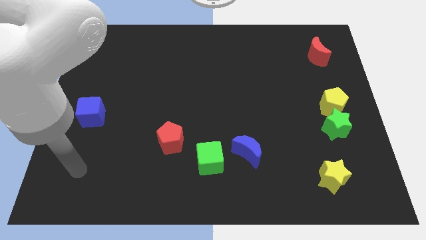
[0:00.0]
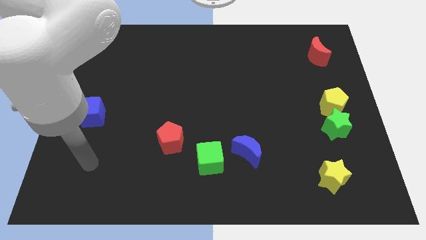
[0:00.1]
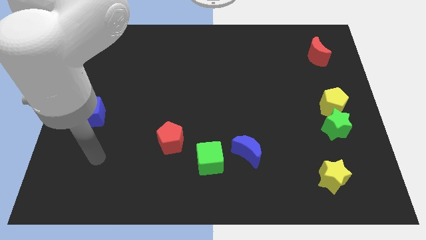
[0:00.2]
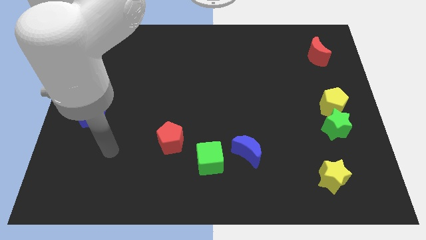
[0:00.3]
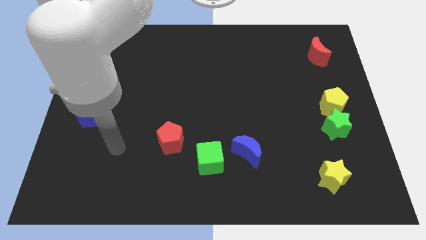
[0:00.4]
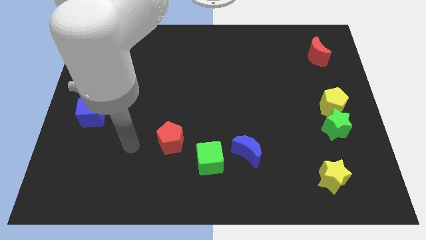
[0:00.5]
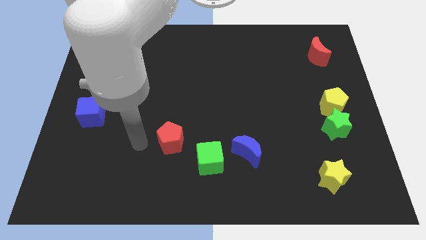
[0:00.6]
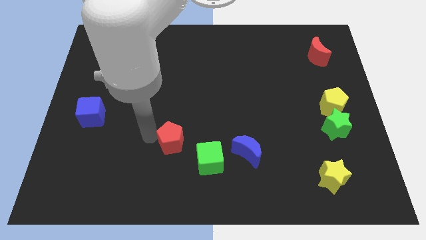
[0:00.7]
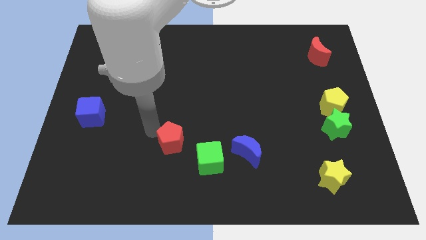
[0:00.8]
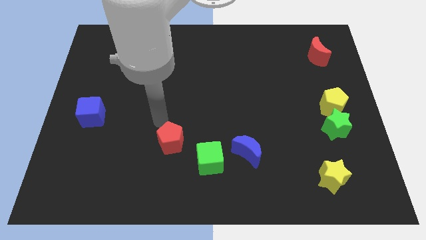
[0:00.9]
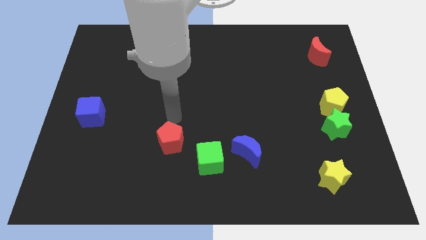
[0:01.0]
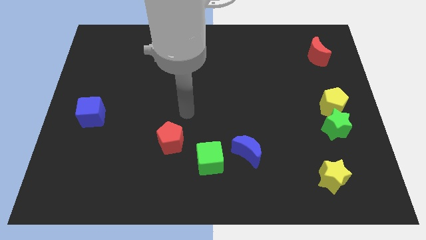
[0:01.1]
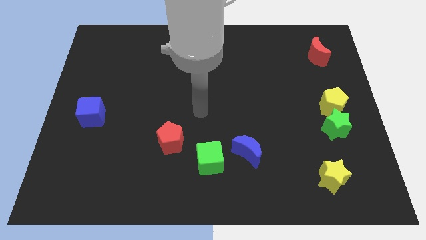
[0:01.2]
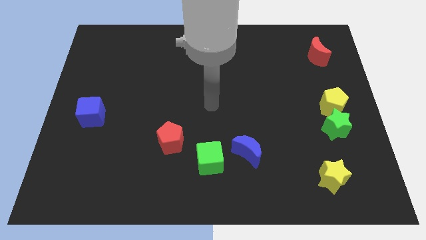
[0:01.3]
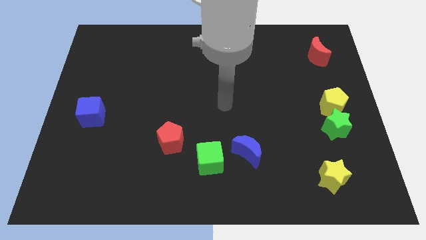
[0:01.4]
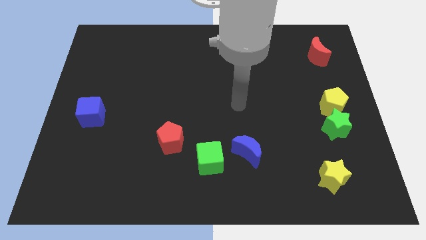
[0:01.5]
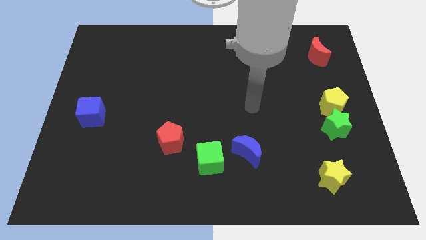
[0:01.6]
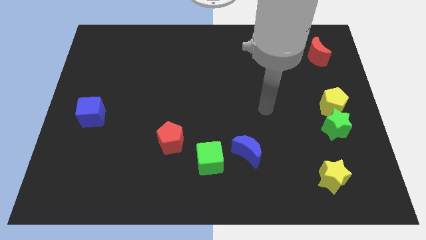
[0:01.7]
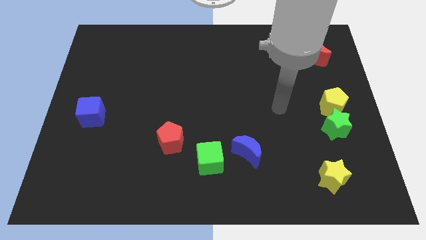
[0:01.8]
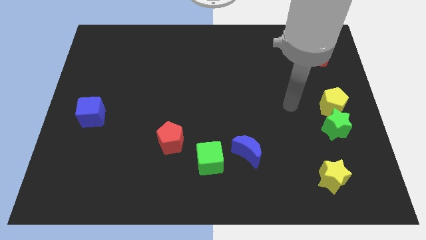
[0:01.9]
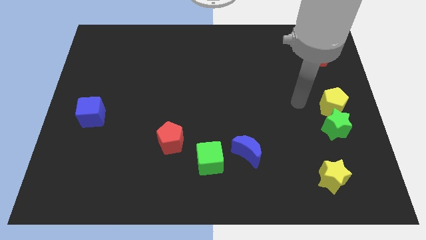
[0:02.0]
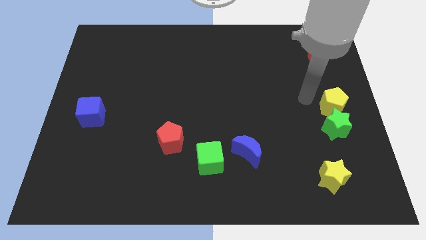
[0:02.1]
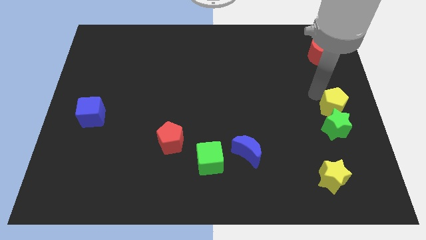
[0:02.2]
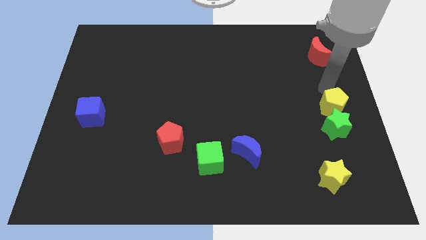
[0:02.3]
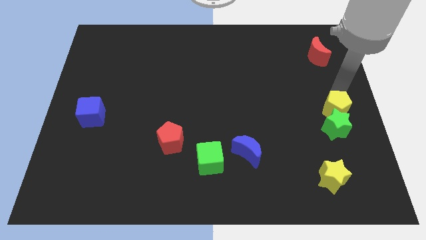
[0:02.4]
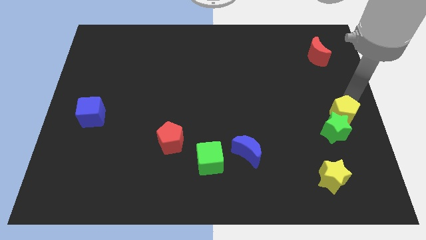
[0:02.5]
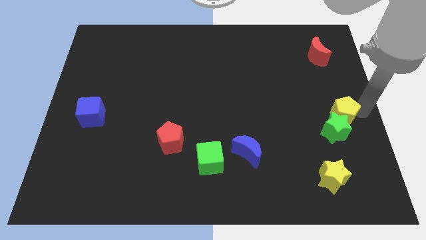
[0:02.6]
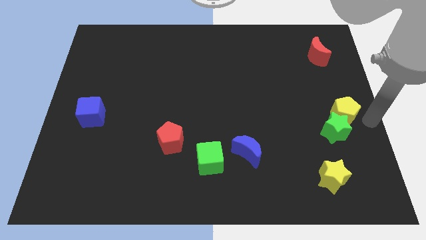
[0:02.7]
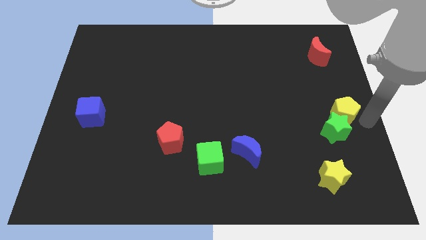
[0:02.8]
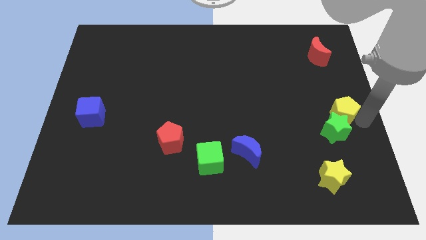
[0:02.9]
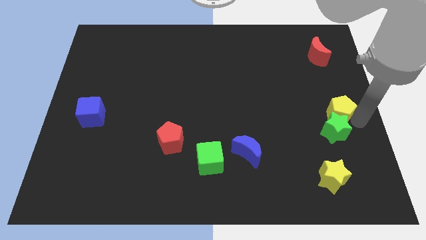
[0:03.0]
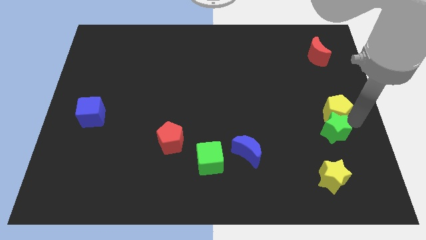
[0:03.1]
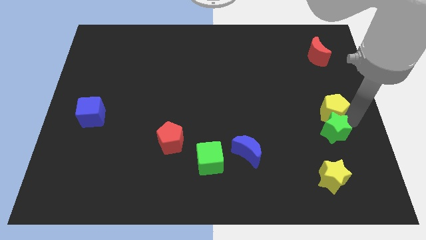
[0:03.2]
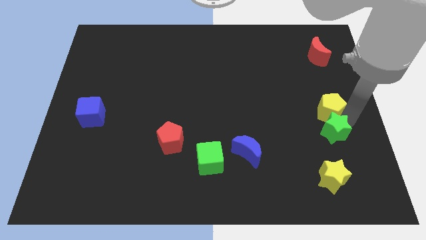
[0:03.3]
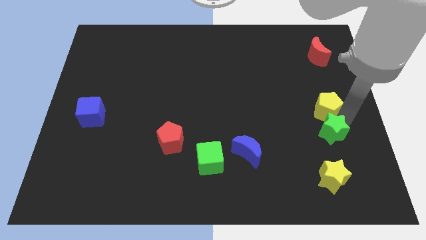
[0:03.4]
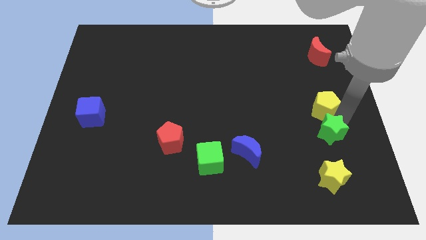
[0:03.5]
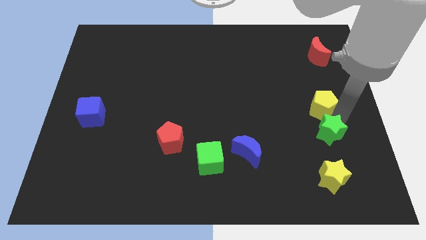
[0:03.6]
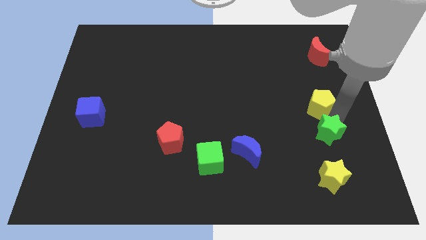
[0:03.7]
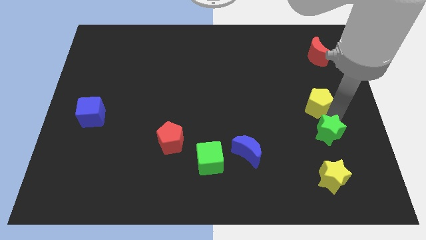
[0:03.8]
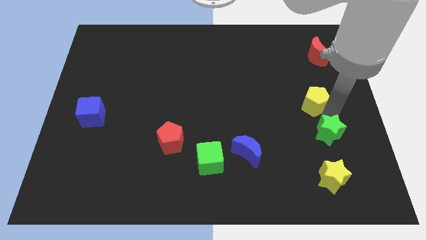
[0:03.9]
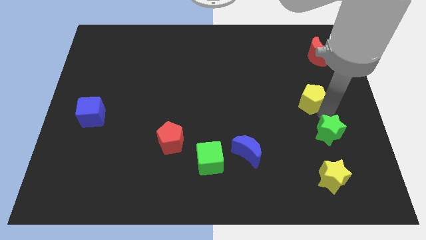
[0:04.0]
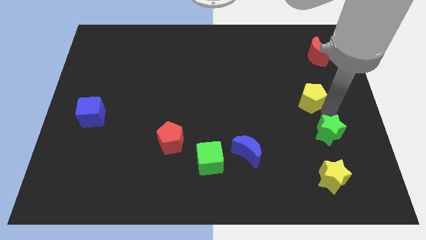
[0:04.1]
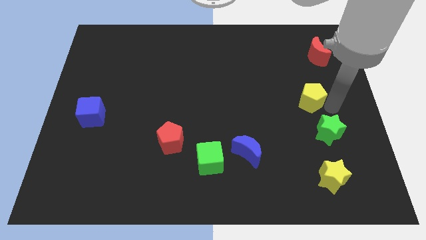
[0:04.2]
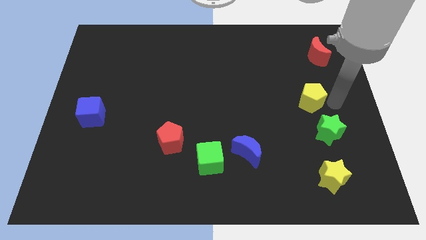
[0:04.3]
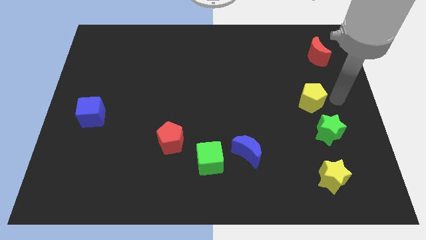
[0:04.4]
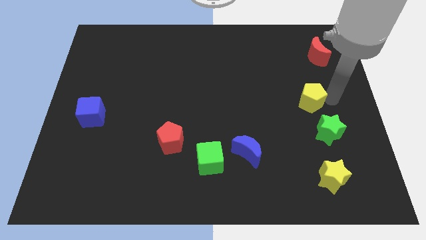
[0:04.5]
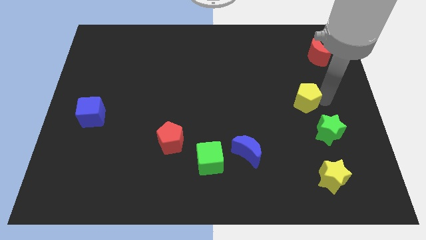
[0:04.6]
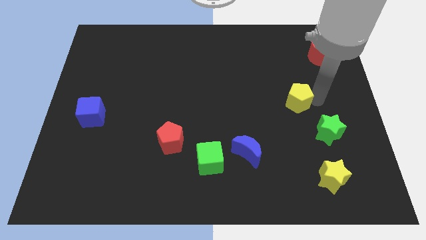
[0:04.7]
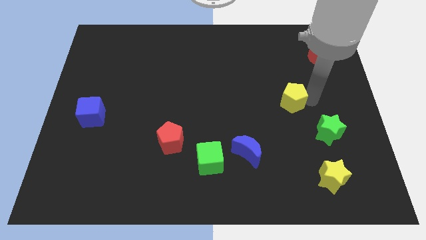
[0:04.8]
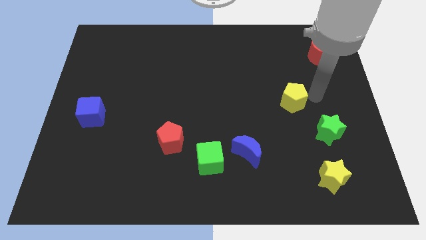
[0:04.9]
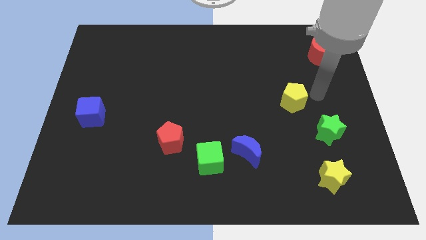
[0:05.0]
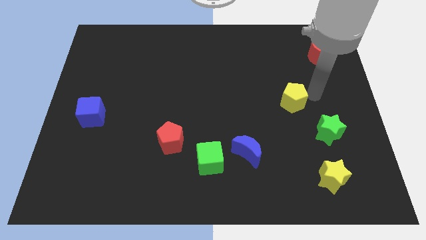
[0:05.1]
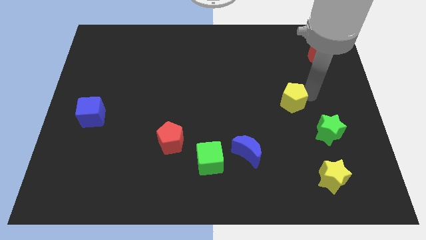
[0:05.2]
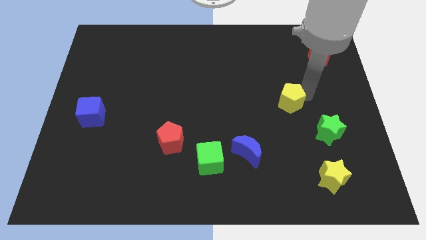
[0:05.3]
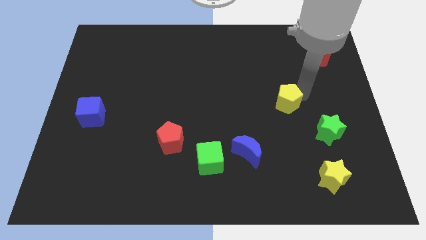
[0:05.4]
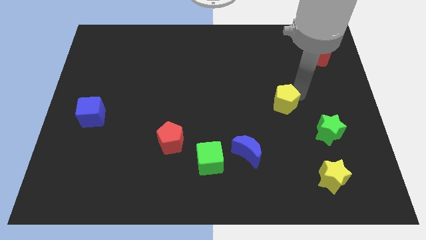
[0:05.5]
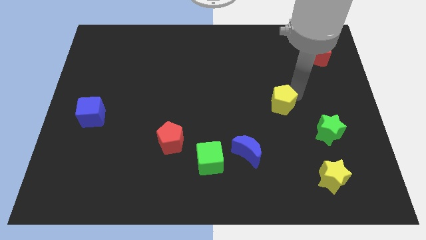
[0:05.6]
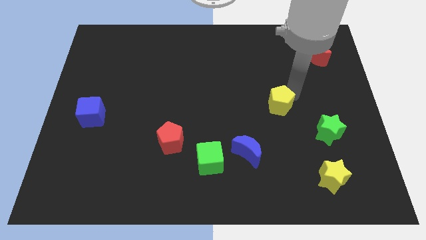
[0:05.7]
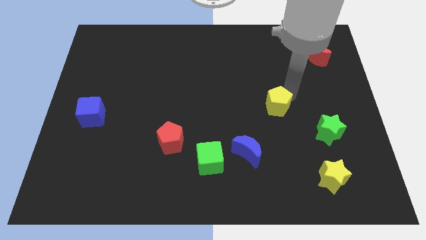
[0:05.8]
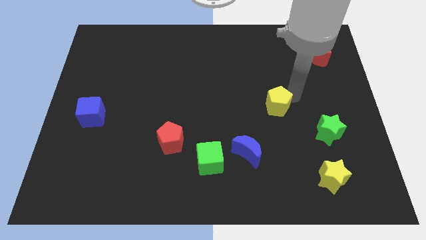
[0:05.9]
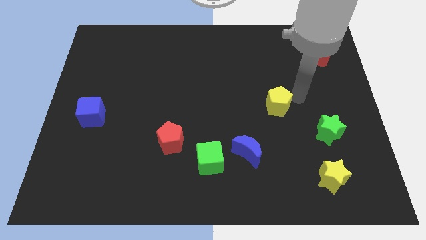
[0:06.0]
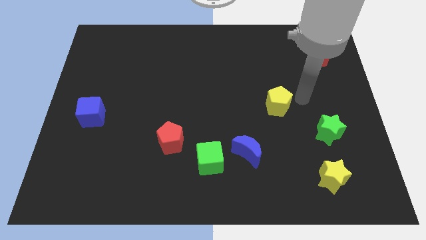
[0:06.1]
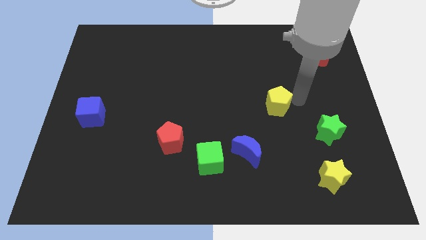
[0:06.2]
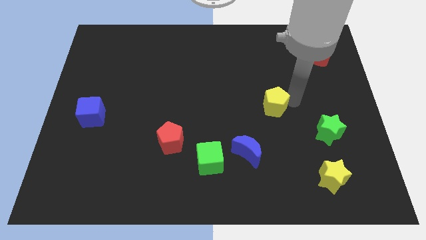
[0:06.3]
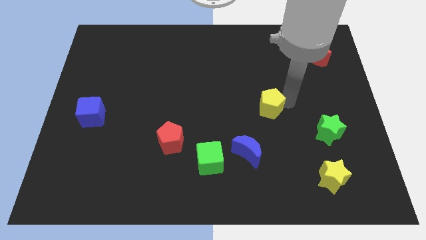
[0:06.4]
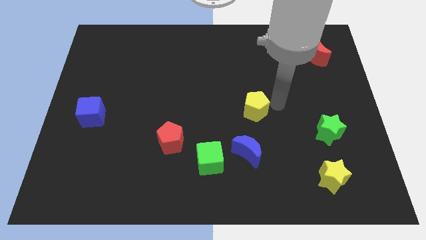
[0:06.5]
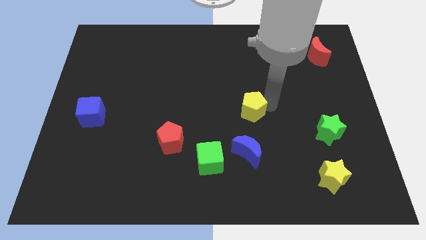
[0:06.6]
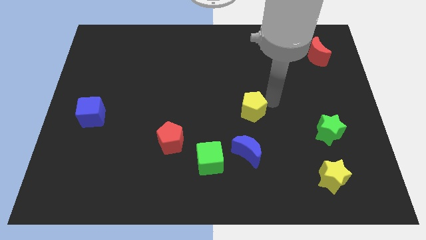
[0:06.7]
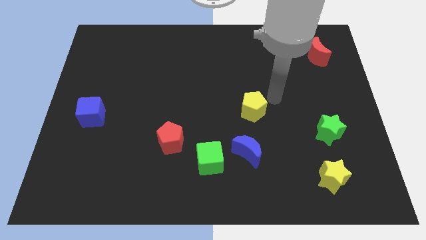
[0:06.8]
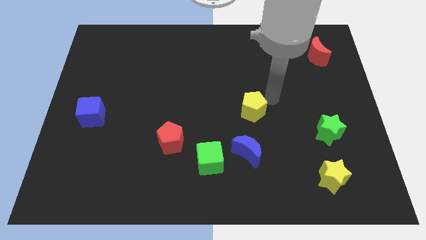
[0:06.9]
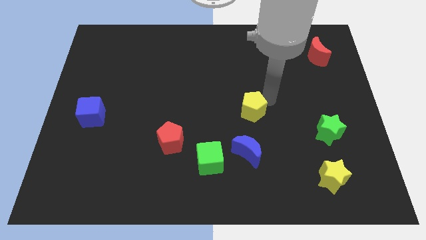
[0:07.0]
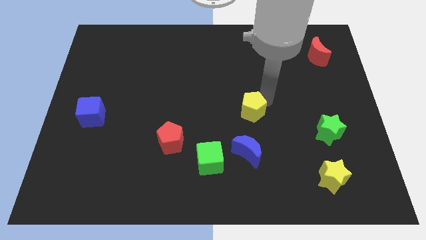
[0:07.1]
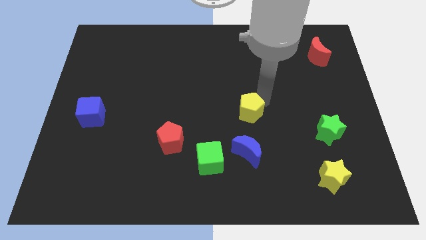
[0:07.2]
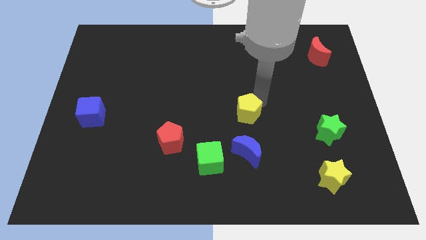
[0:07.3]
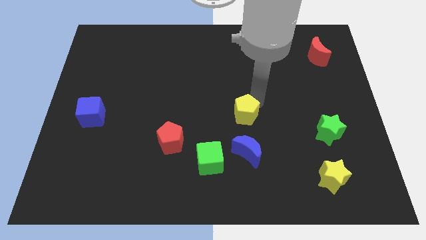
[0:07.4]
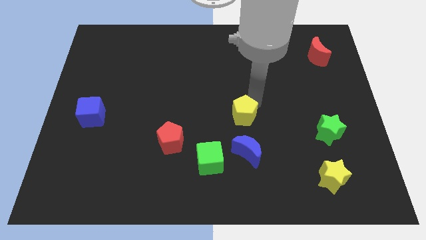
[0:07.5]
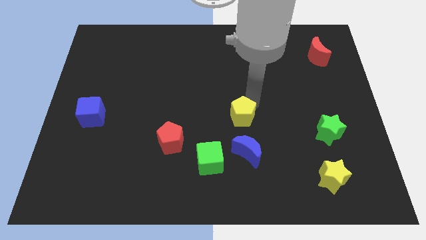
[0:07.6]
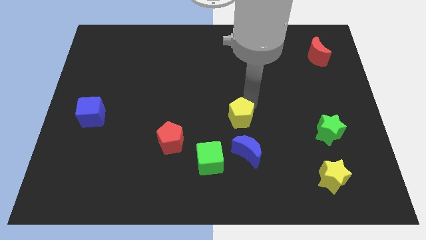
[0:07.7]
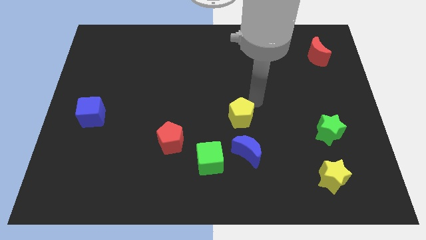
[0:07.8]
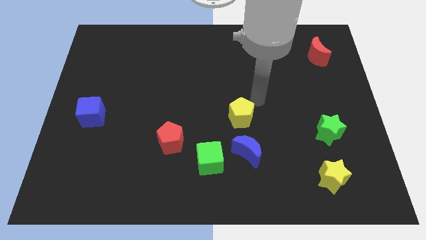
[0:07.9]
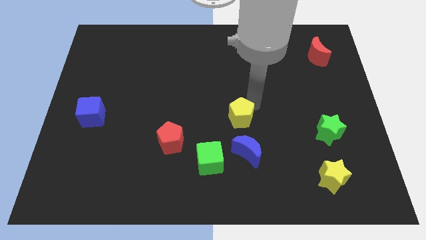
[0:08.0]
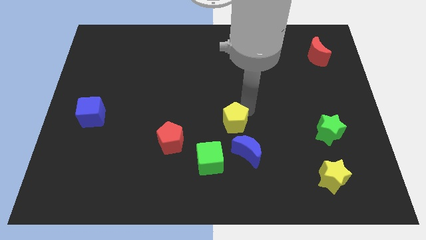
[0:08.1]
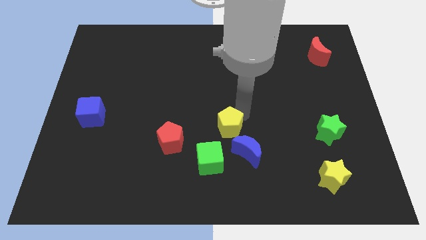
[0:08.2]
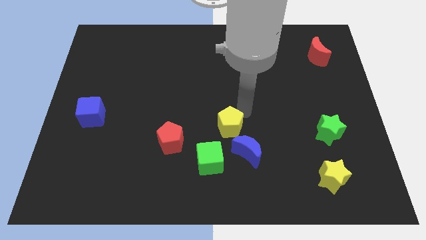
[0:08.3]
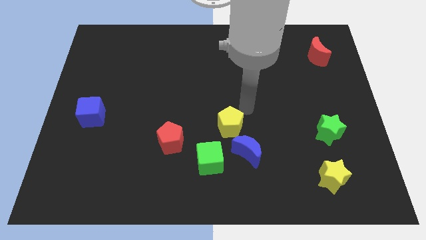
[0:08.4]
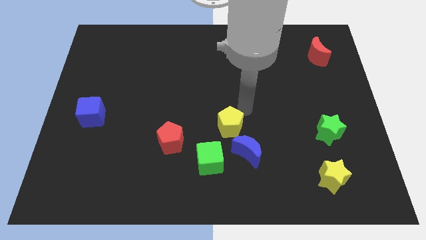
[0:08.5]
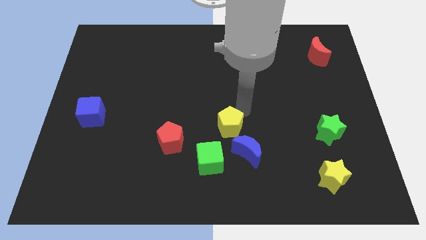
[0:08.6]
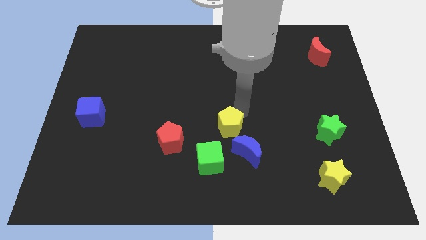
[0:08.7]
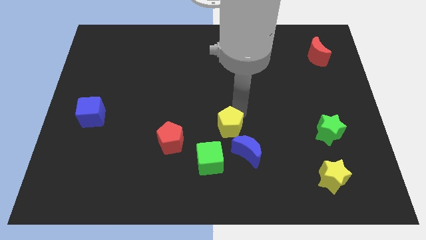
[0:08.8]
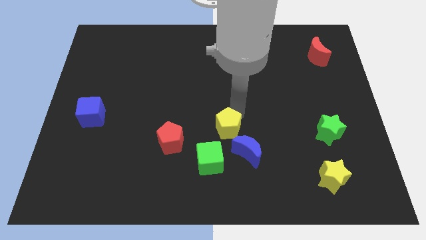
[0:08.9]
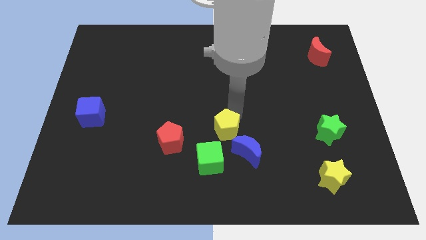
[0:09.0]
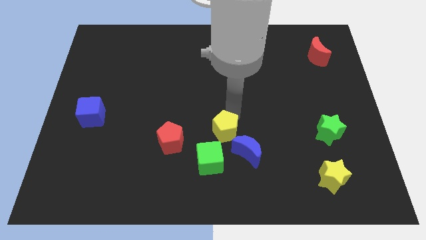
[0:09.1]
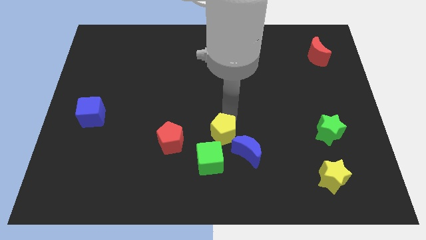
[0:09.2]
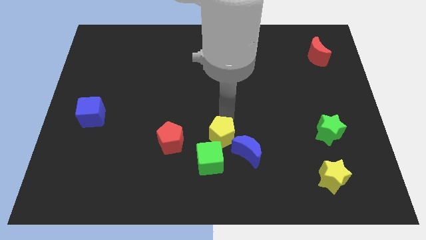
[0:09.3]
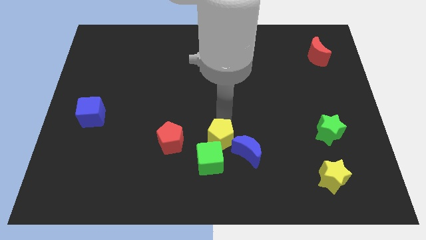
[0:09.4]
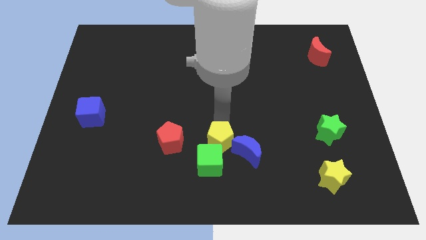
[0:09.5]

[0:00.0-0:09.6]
slide the yellow pentagon close to the green cube
